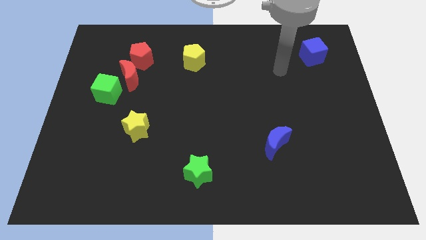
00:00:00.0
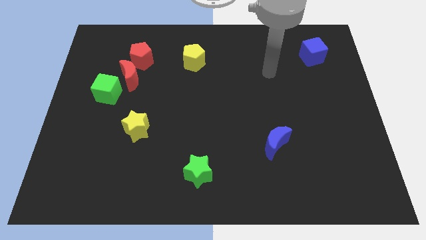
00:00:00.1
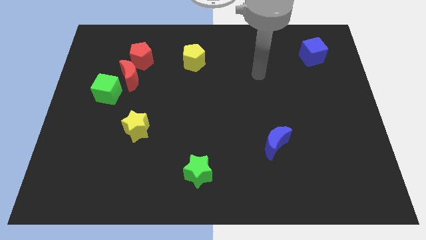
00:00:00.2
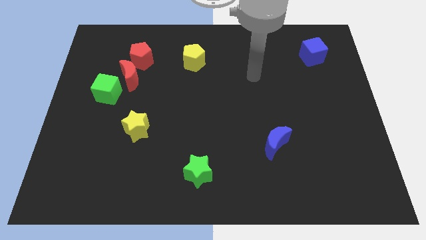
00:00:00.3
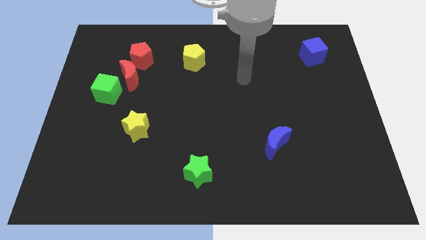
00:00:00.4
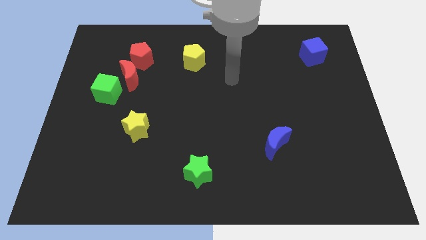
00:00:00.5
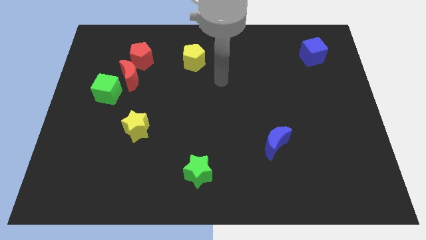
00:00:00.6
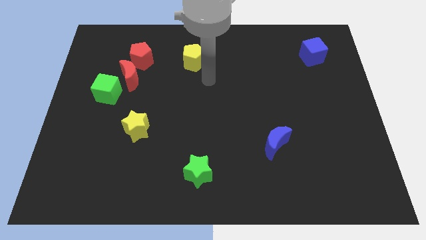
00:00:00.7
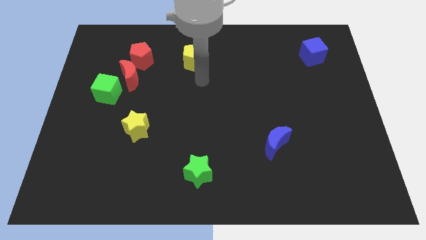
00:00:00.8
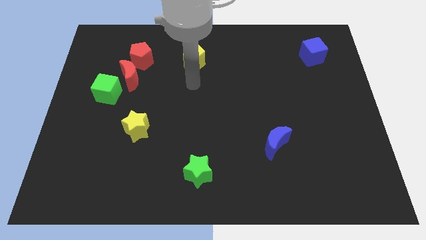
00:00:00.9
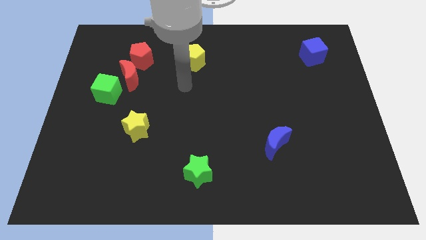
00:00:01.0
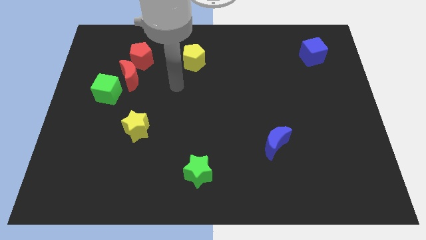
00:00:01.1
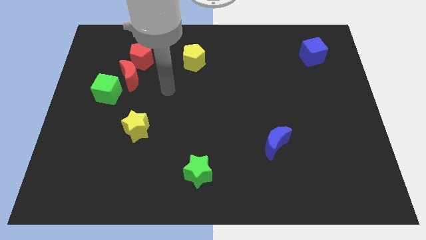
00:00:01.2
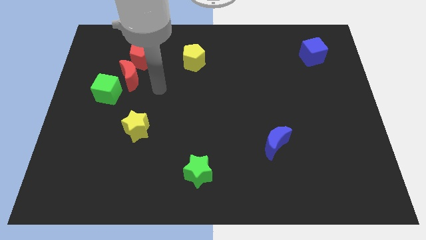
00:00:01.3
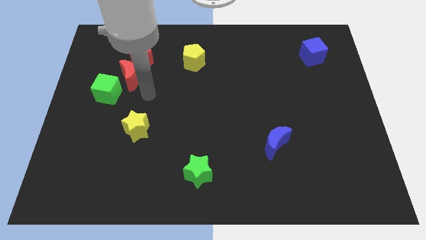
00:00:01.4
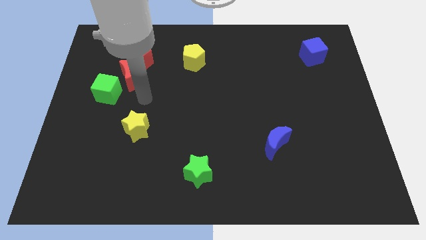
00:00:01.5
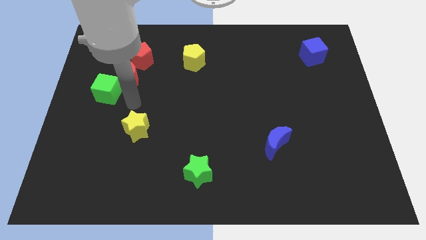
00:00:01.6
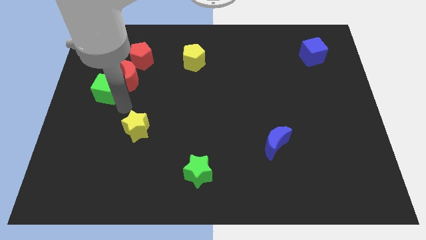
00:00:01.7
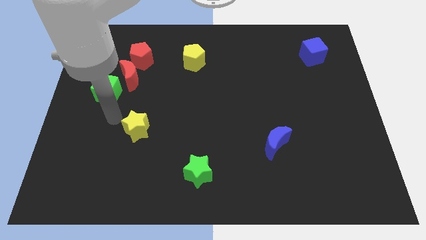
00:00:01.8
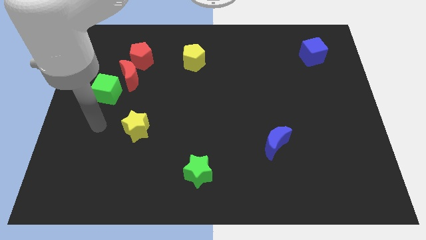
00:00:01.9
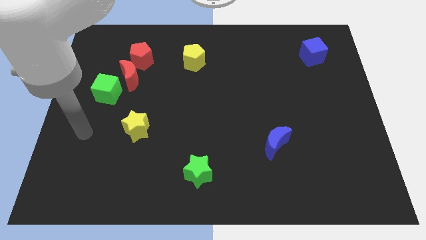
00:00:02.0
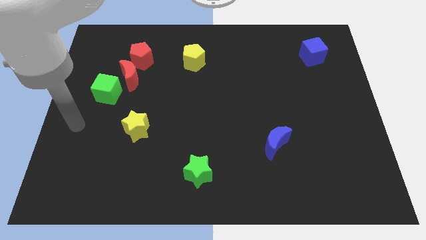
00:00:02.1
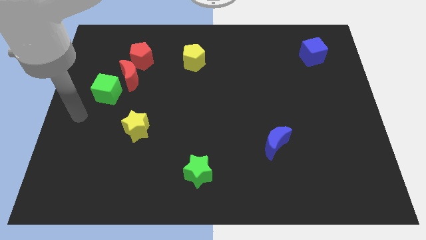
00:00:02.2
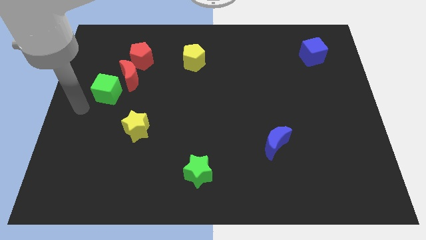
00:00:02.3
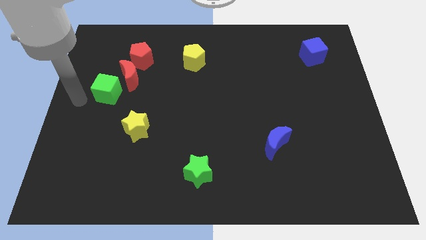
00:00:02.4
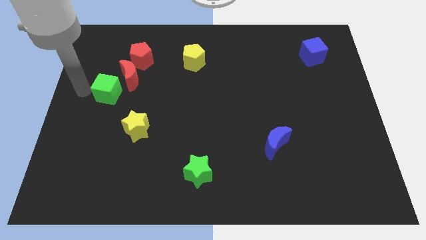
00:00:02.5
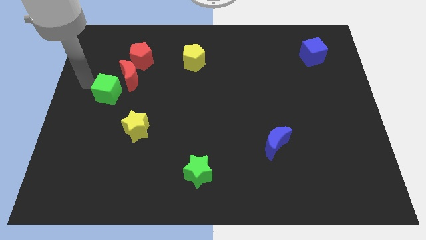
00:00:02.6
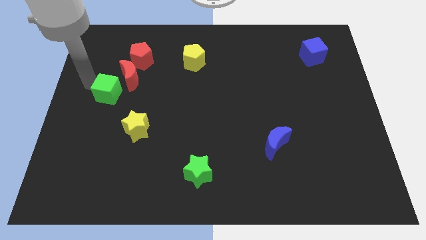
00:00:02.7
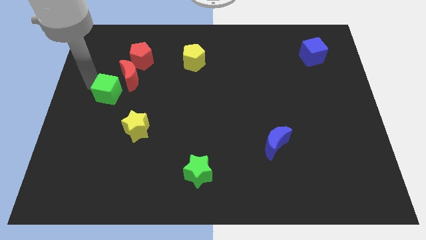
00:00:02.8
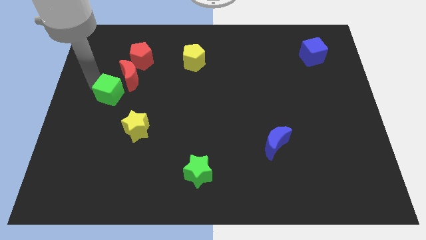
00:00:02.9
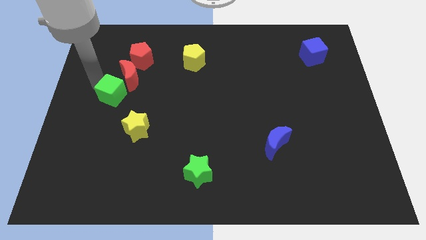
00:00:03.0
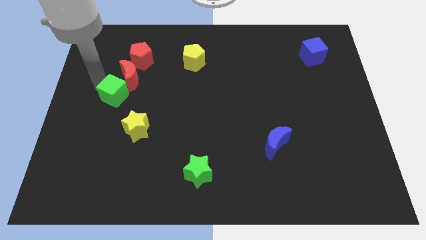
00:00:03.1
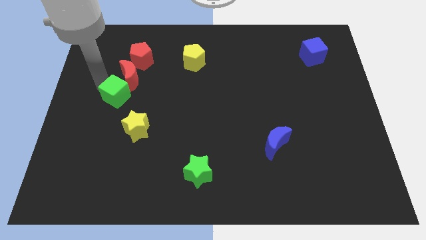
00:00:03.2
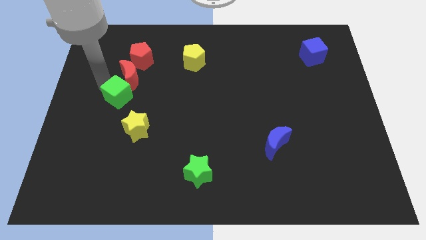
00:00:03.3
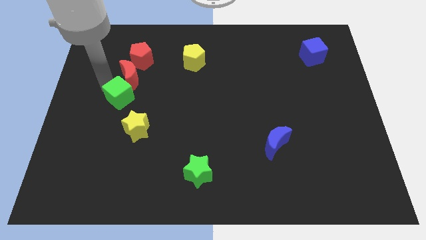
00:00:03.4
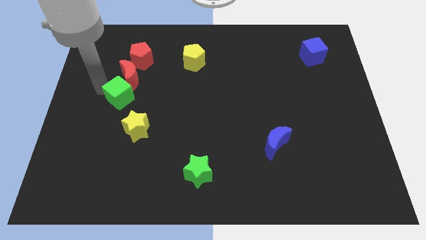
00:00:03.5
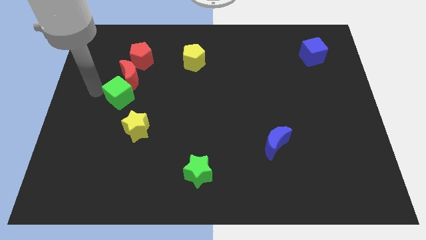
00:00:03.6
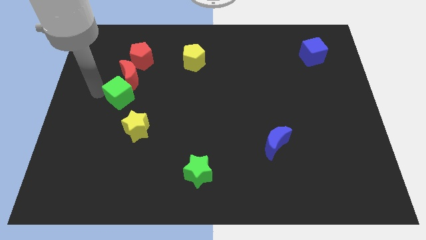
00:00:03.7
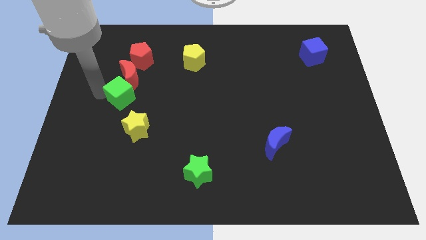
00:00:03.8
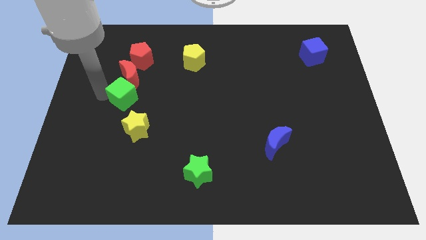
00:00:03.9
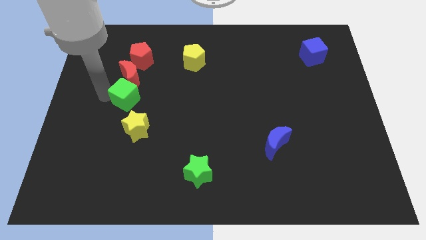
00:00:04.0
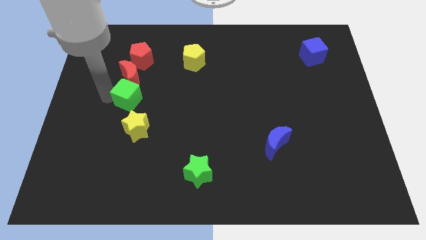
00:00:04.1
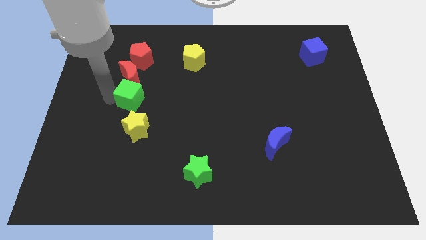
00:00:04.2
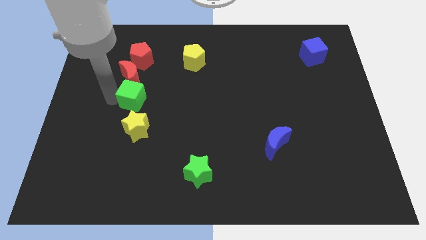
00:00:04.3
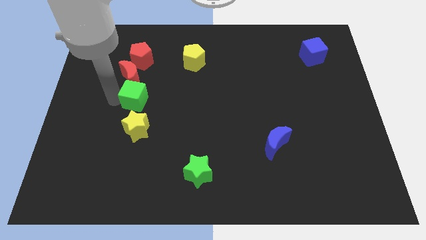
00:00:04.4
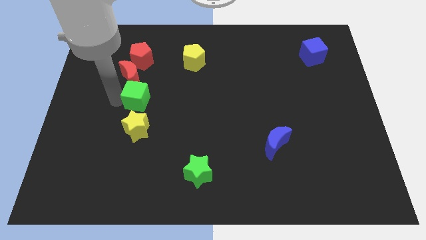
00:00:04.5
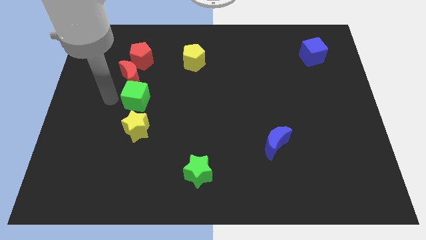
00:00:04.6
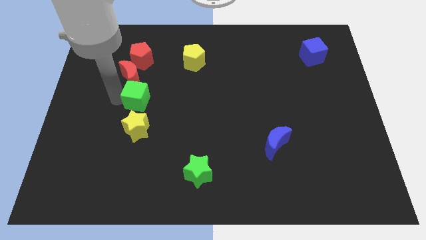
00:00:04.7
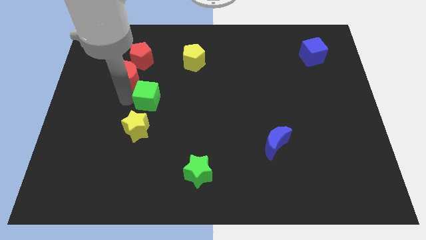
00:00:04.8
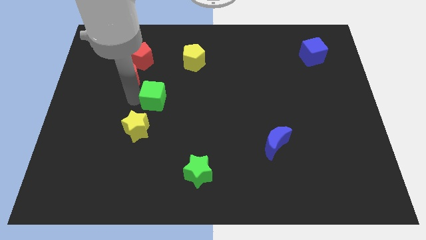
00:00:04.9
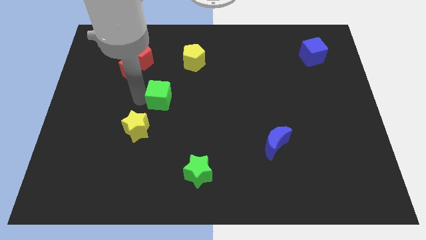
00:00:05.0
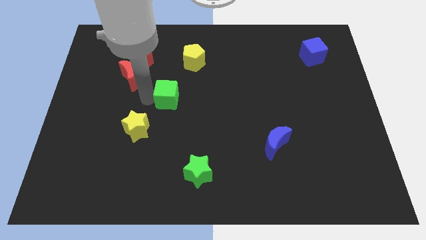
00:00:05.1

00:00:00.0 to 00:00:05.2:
put the green cube to the middle of the board

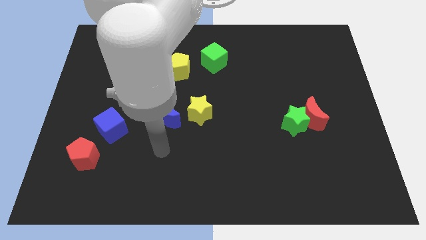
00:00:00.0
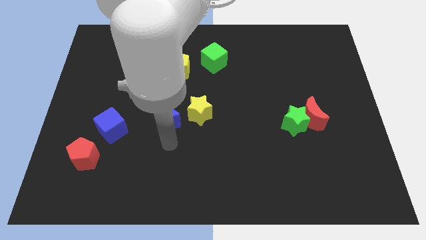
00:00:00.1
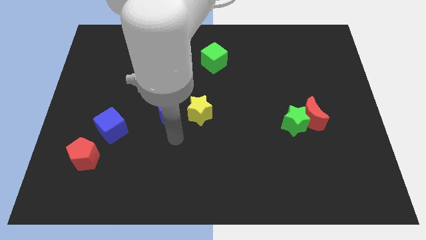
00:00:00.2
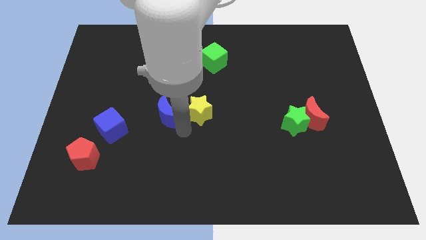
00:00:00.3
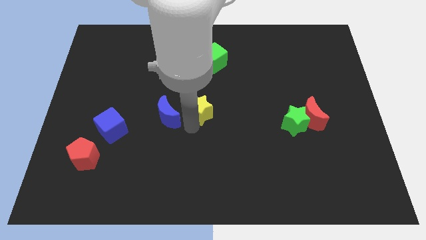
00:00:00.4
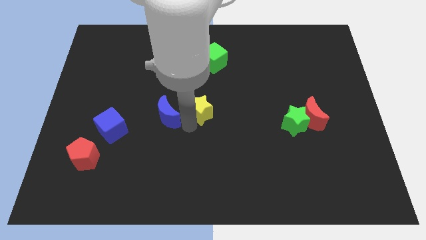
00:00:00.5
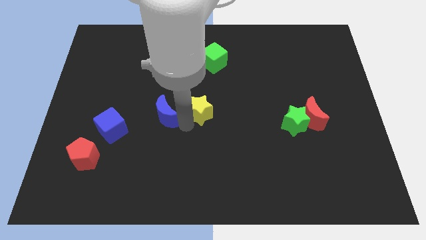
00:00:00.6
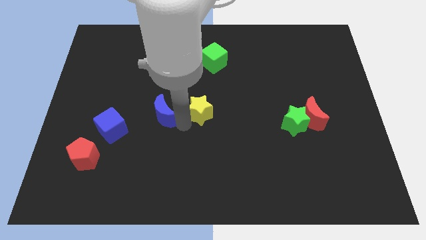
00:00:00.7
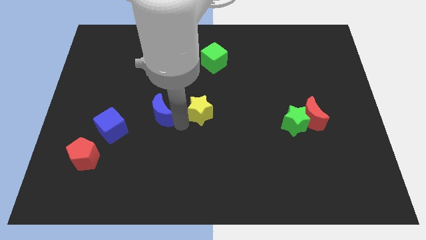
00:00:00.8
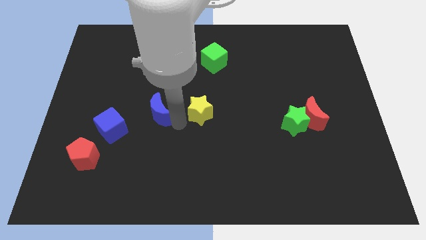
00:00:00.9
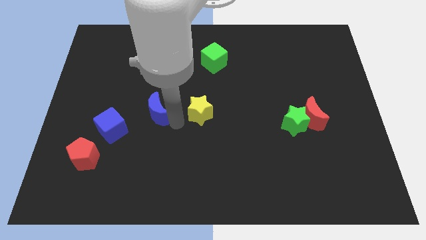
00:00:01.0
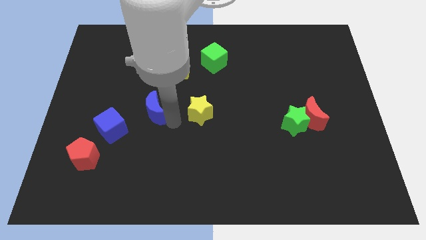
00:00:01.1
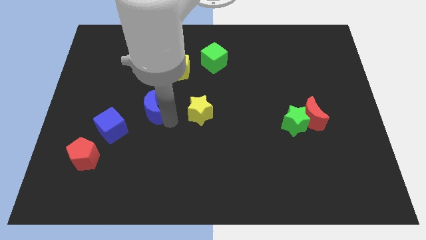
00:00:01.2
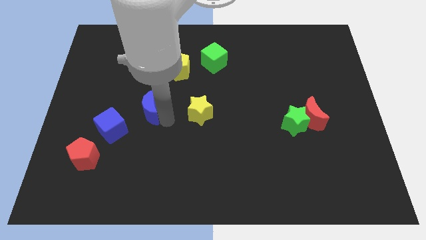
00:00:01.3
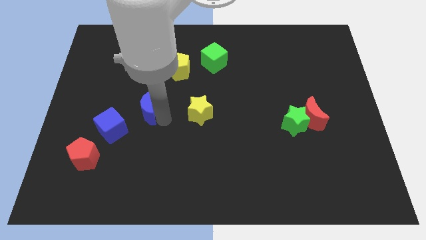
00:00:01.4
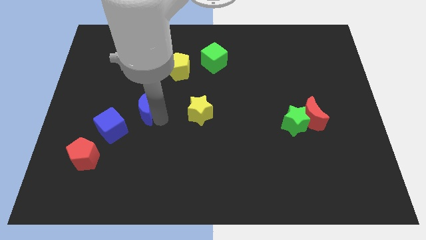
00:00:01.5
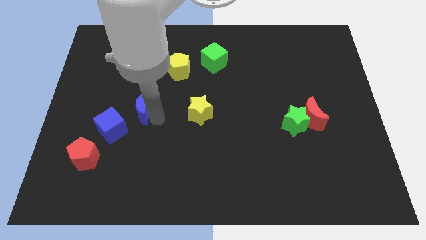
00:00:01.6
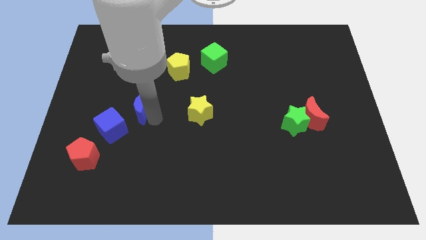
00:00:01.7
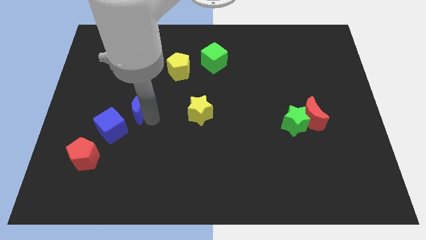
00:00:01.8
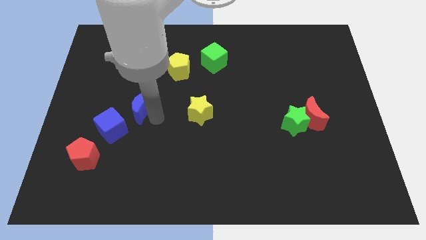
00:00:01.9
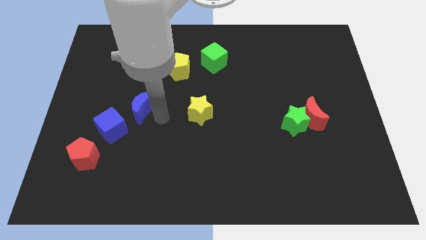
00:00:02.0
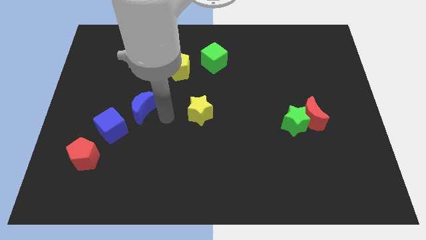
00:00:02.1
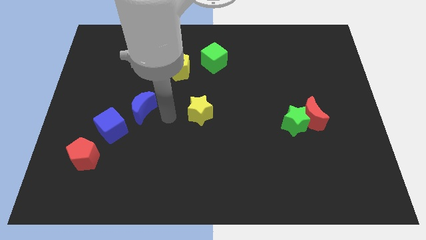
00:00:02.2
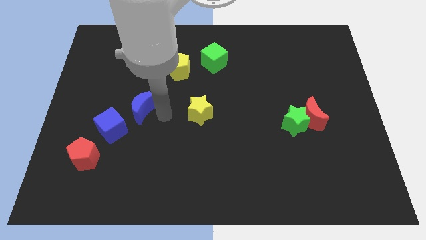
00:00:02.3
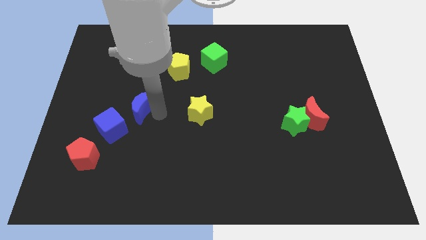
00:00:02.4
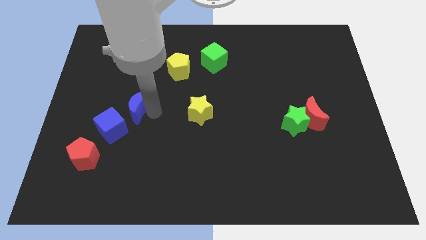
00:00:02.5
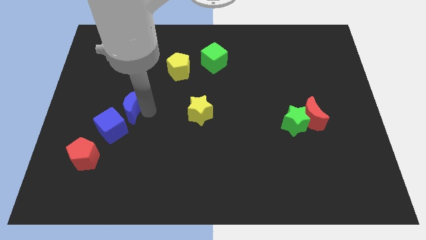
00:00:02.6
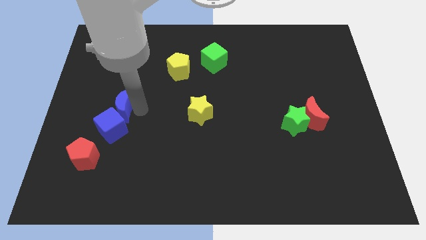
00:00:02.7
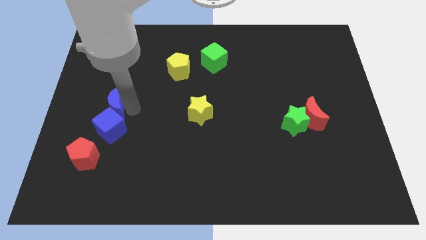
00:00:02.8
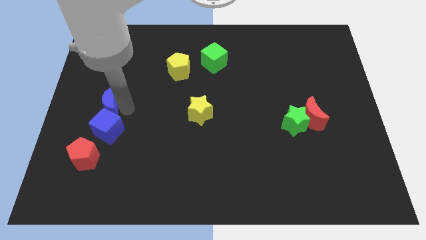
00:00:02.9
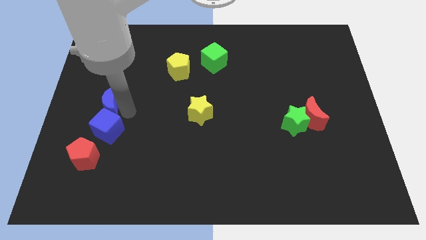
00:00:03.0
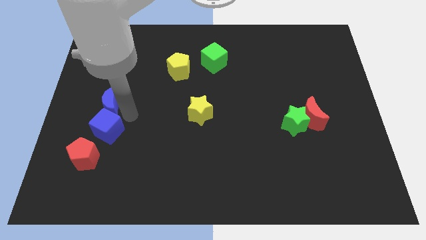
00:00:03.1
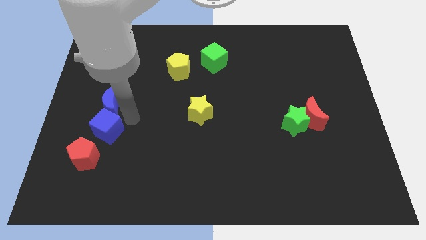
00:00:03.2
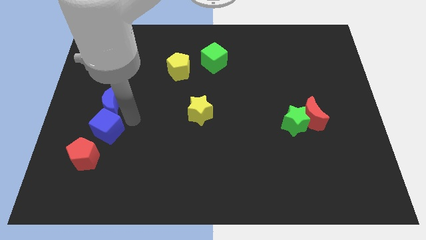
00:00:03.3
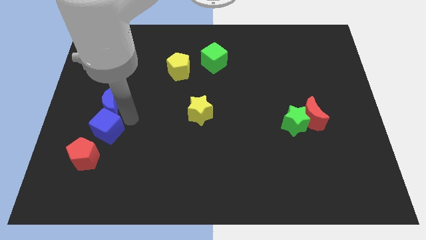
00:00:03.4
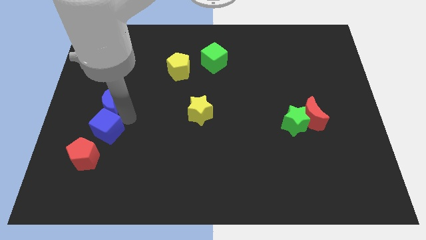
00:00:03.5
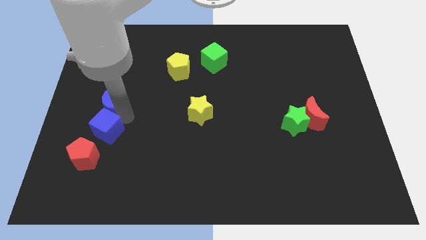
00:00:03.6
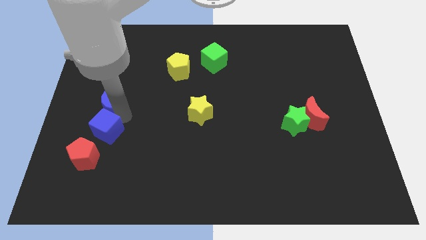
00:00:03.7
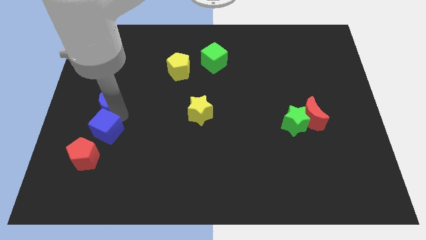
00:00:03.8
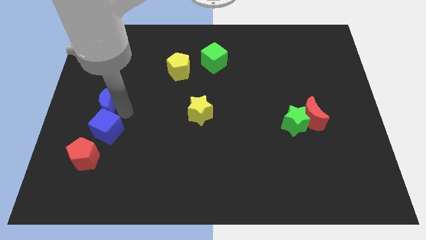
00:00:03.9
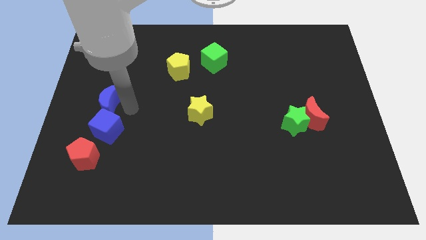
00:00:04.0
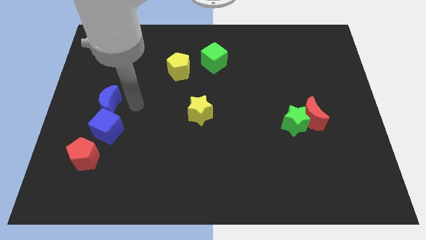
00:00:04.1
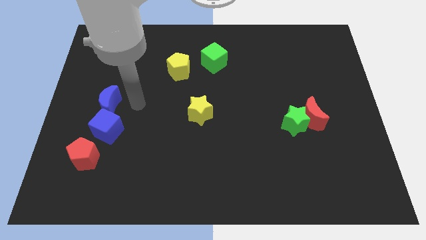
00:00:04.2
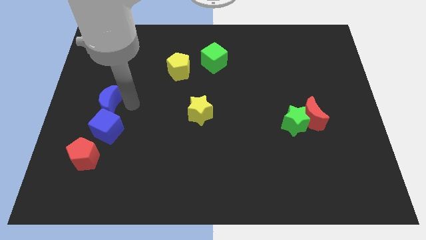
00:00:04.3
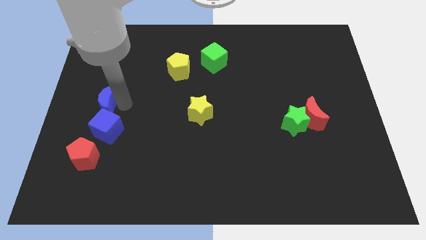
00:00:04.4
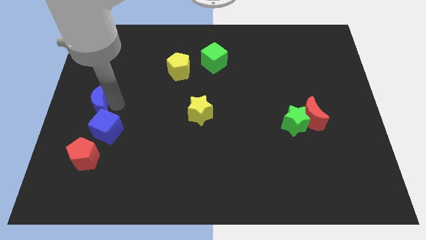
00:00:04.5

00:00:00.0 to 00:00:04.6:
push the blue moon to the center left
